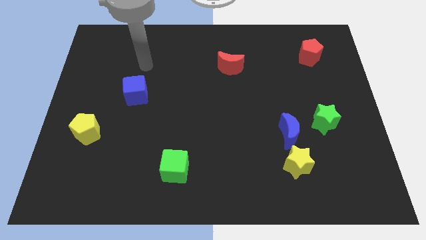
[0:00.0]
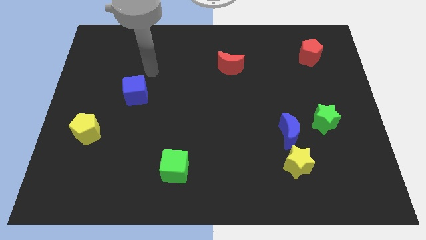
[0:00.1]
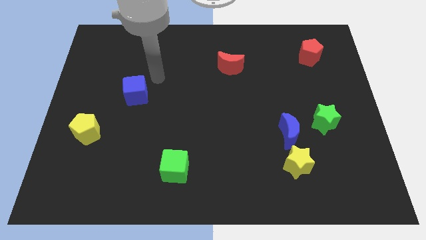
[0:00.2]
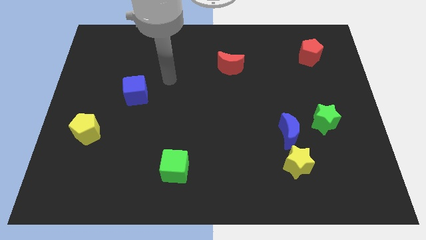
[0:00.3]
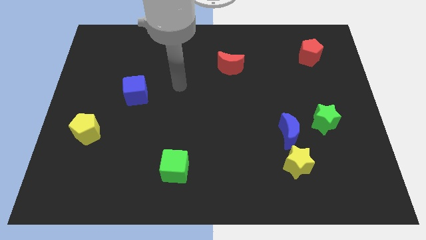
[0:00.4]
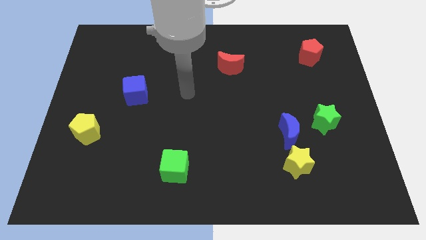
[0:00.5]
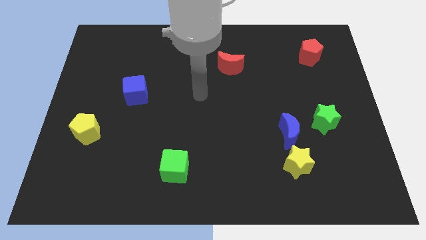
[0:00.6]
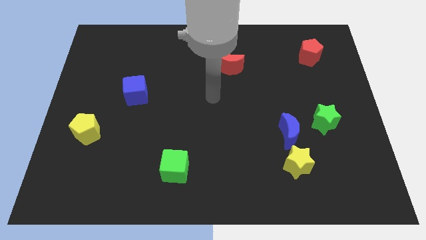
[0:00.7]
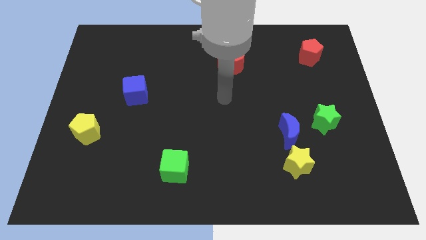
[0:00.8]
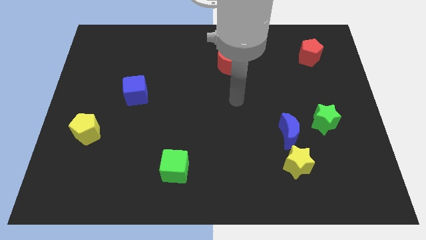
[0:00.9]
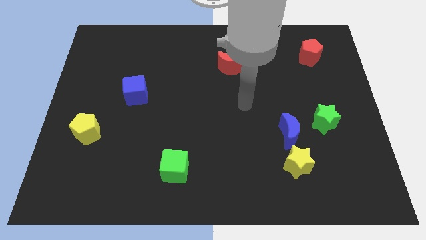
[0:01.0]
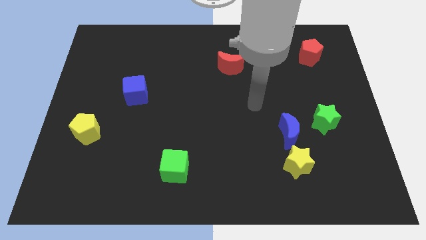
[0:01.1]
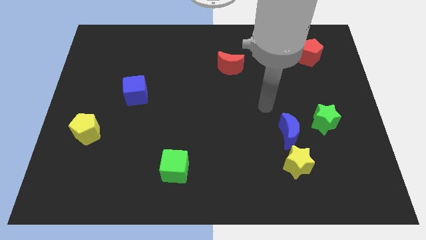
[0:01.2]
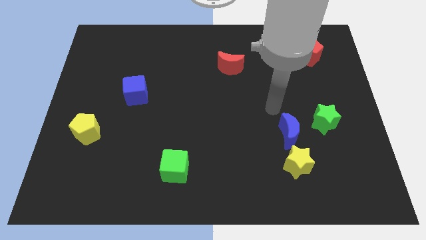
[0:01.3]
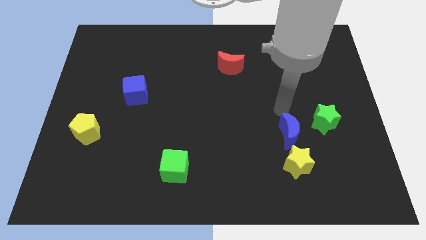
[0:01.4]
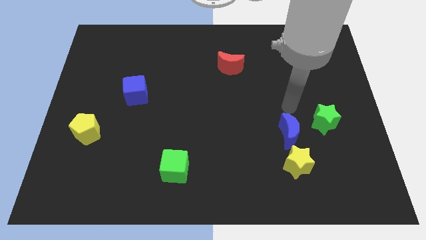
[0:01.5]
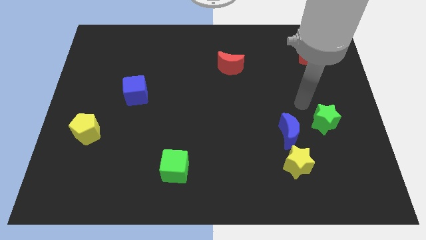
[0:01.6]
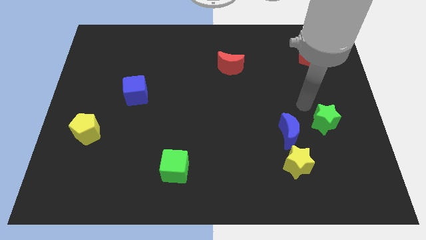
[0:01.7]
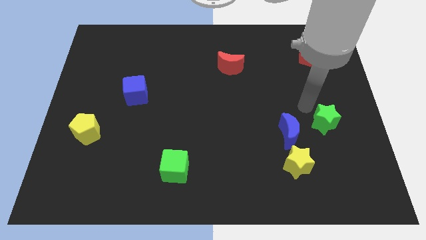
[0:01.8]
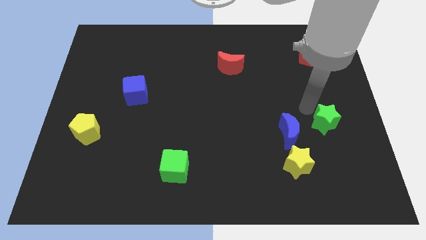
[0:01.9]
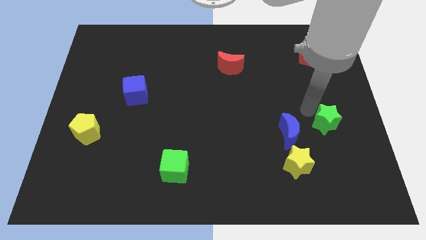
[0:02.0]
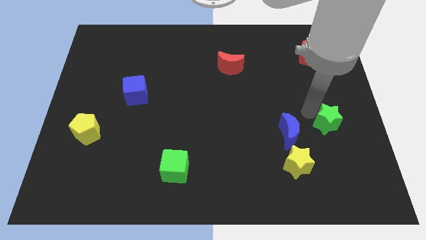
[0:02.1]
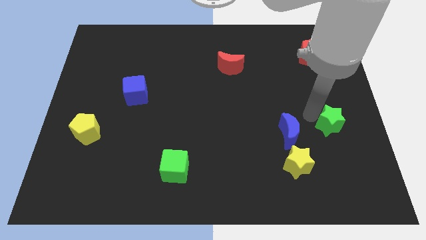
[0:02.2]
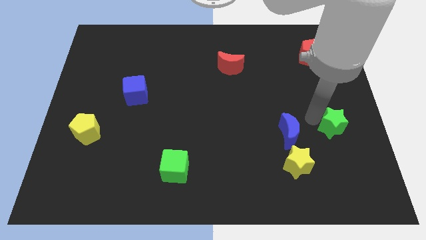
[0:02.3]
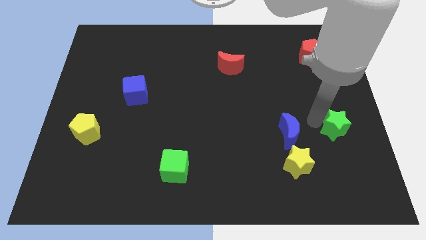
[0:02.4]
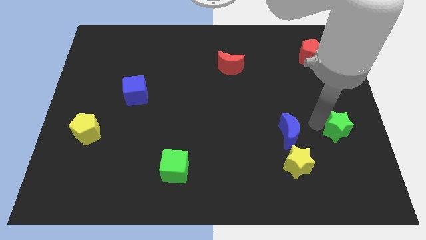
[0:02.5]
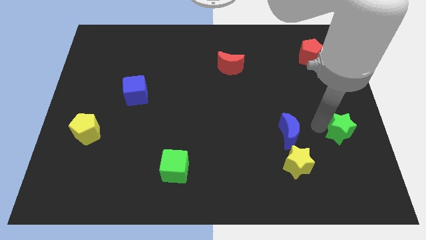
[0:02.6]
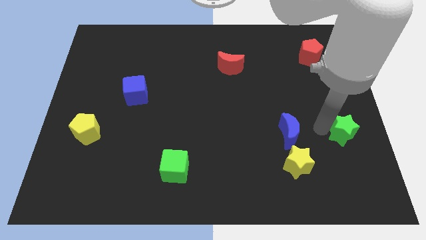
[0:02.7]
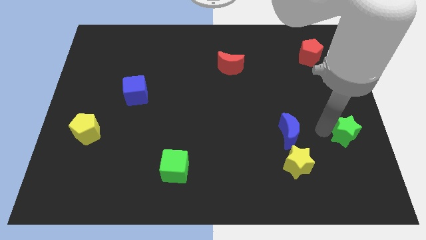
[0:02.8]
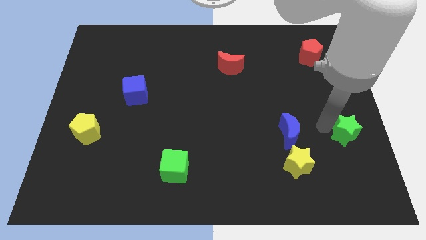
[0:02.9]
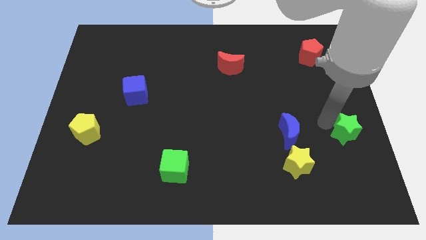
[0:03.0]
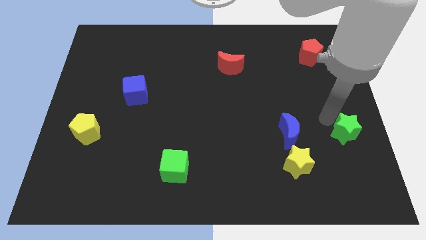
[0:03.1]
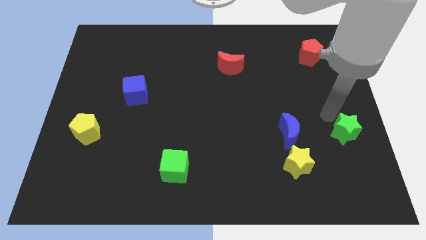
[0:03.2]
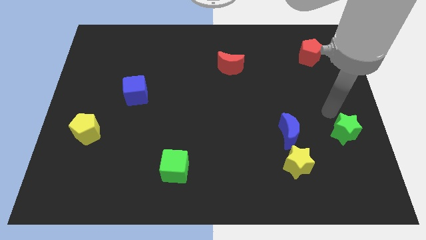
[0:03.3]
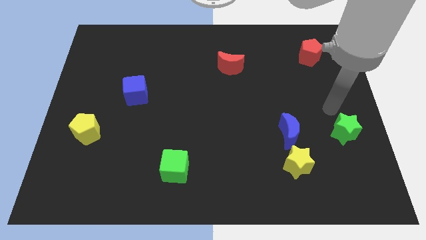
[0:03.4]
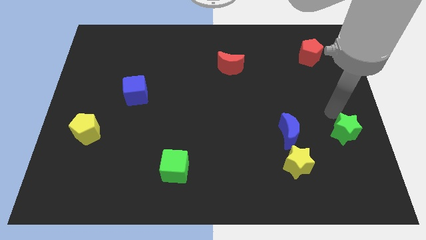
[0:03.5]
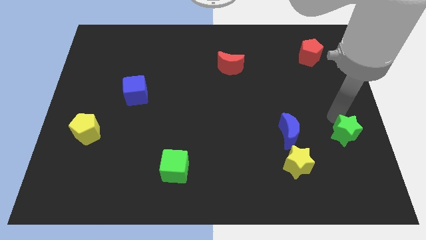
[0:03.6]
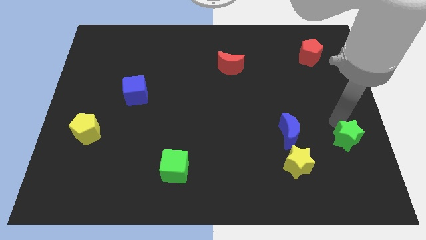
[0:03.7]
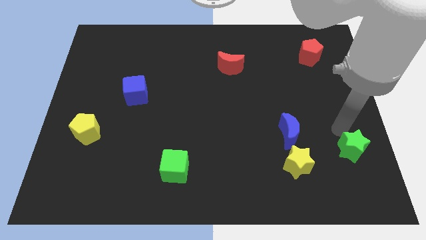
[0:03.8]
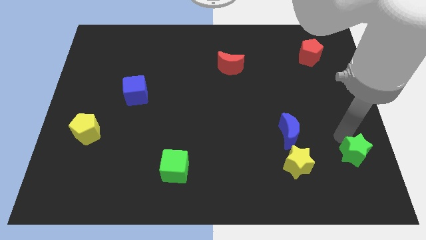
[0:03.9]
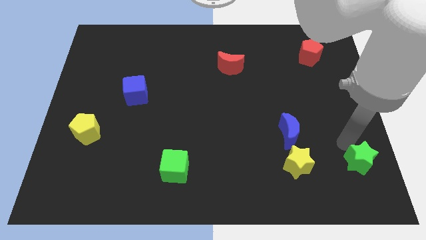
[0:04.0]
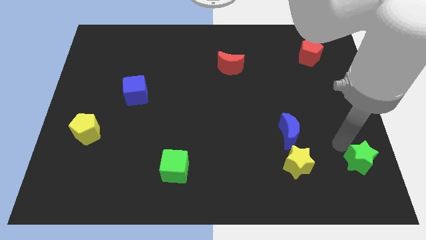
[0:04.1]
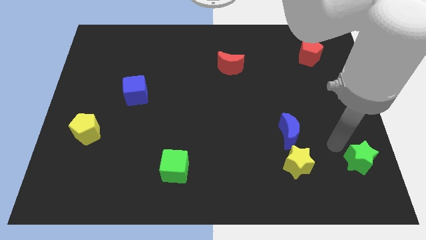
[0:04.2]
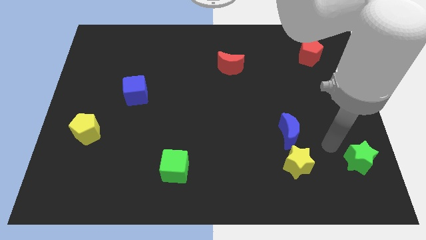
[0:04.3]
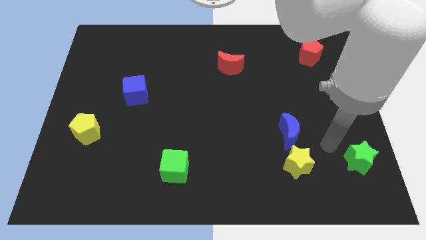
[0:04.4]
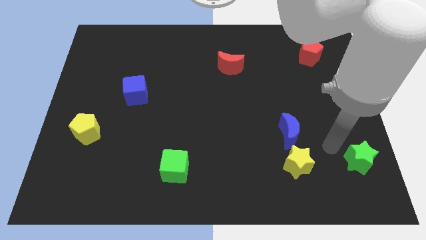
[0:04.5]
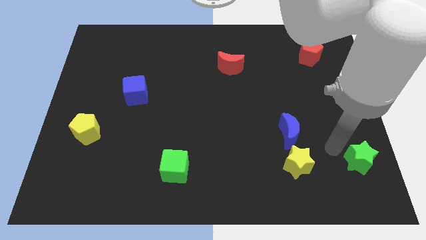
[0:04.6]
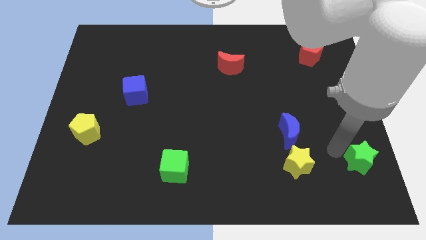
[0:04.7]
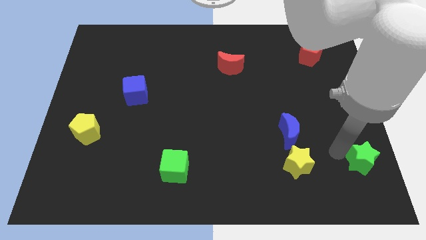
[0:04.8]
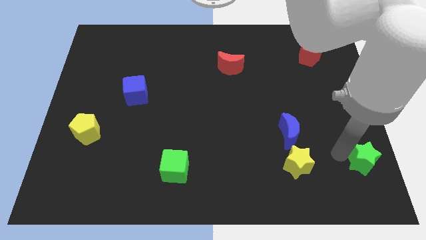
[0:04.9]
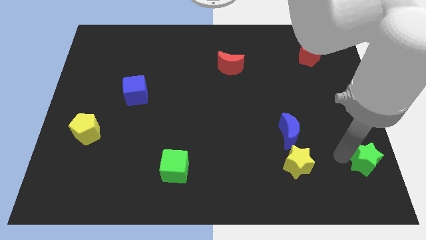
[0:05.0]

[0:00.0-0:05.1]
move the green star to the lower right corner

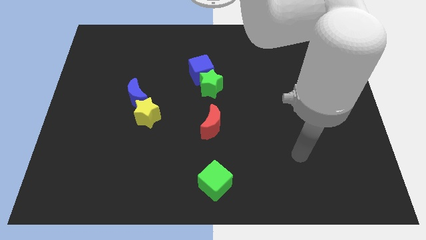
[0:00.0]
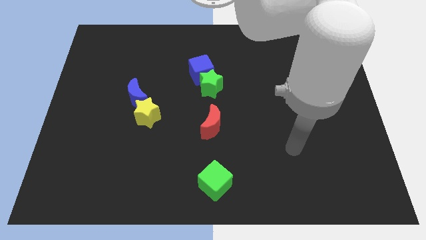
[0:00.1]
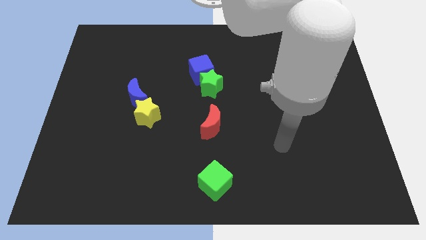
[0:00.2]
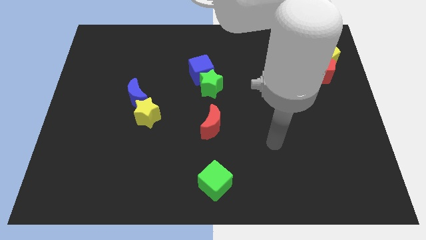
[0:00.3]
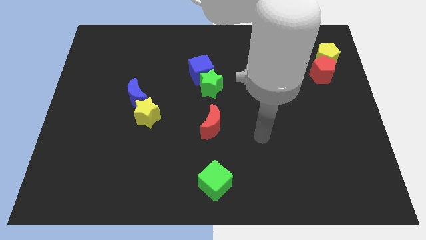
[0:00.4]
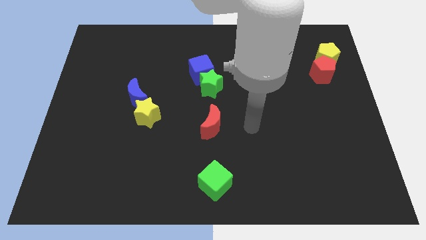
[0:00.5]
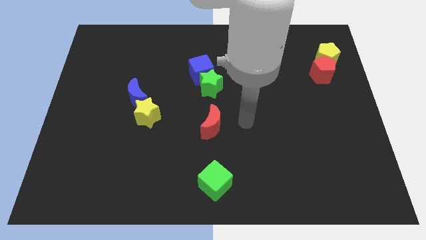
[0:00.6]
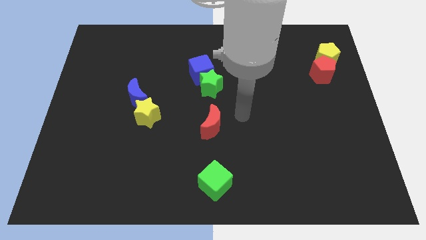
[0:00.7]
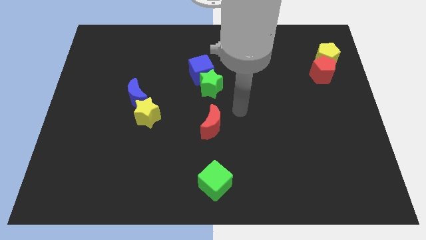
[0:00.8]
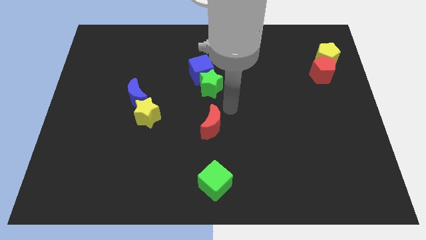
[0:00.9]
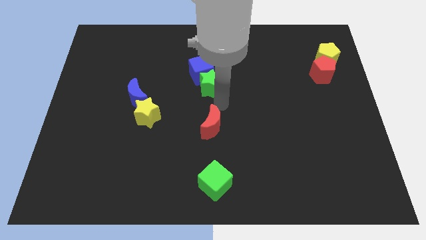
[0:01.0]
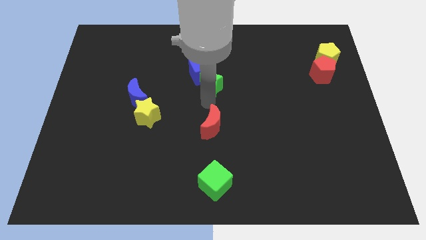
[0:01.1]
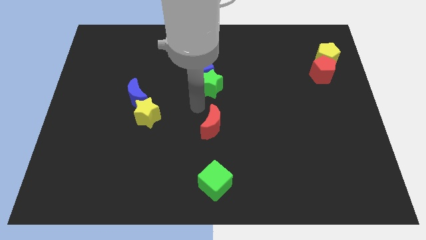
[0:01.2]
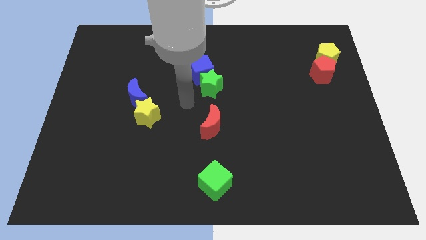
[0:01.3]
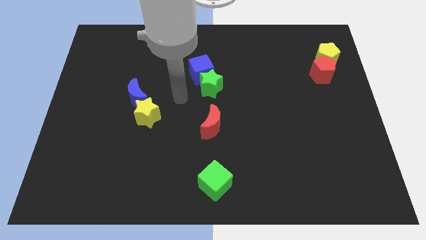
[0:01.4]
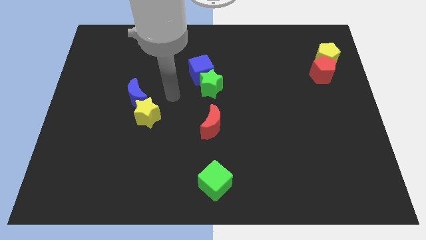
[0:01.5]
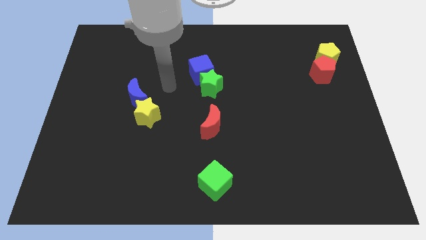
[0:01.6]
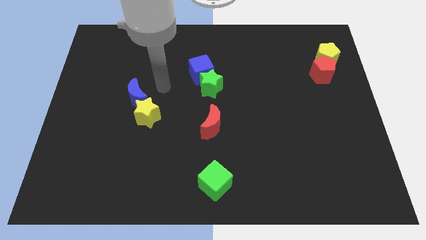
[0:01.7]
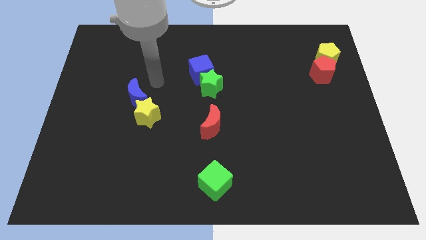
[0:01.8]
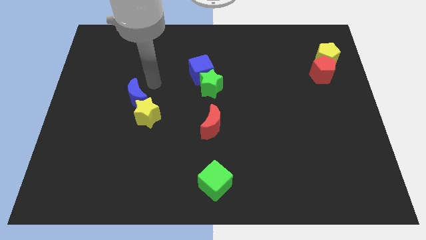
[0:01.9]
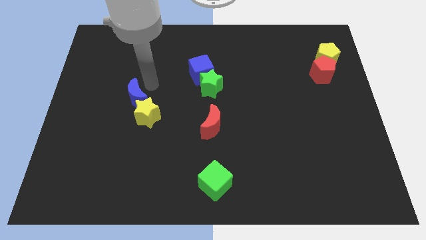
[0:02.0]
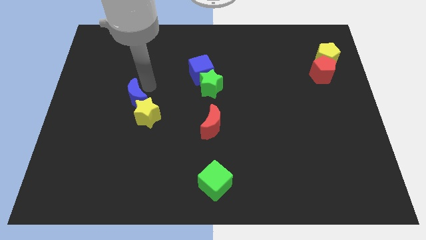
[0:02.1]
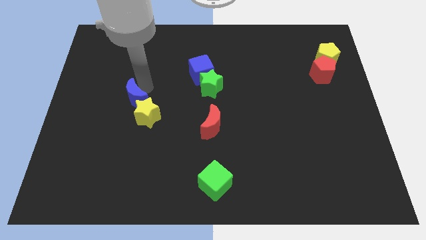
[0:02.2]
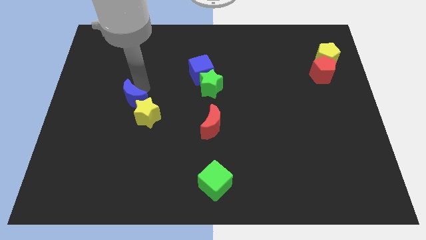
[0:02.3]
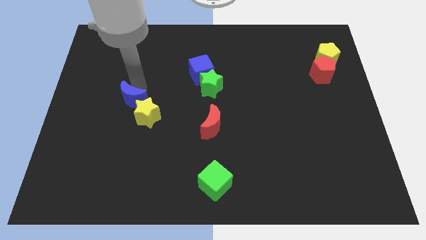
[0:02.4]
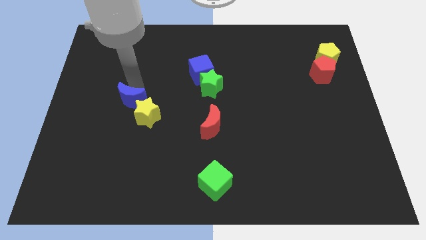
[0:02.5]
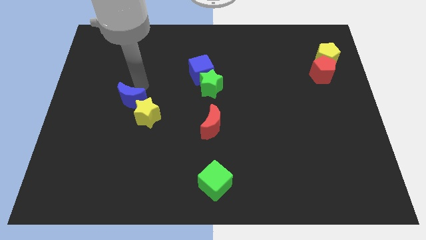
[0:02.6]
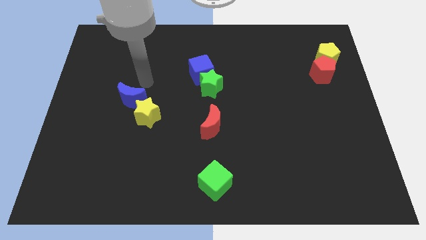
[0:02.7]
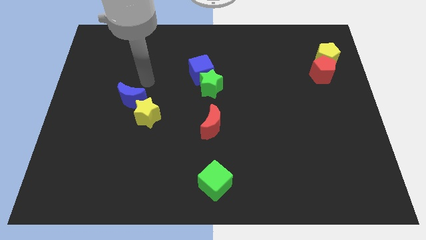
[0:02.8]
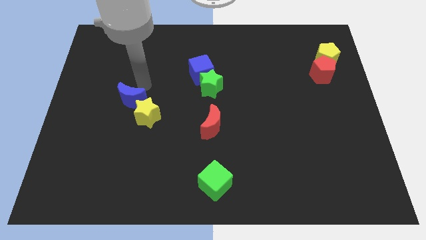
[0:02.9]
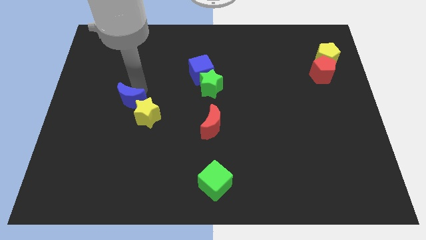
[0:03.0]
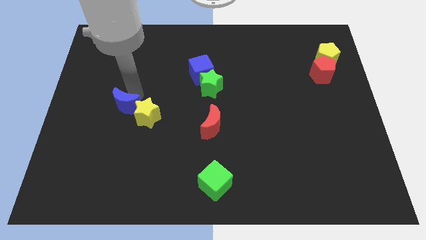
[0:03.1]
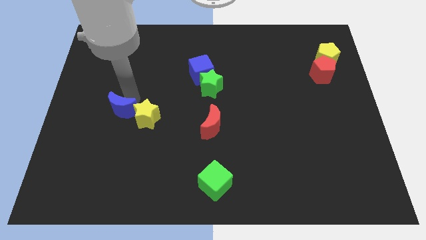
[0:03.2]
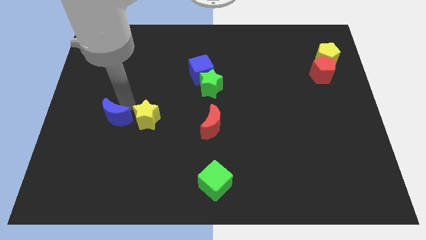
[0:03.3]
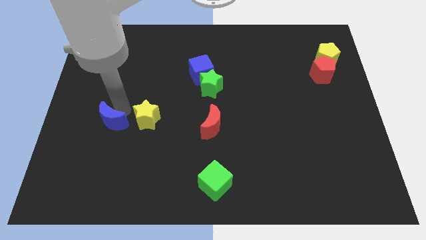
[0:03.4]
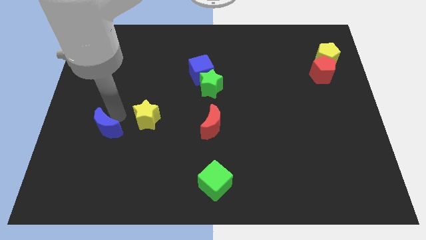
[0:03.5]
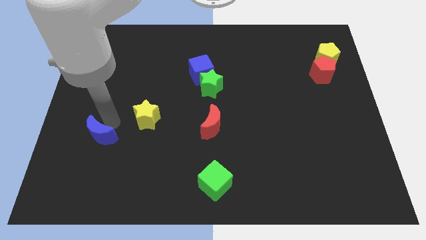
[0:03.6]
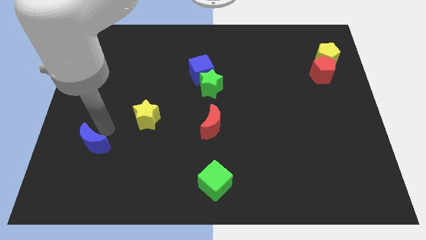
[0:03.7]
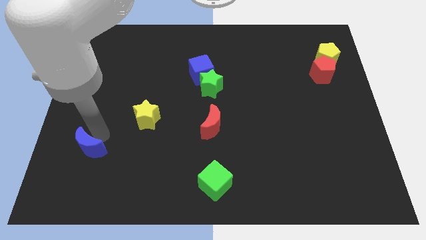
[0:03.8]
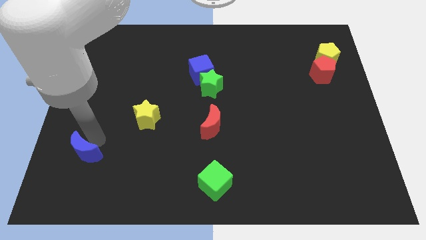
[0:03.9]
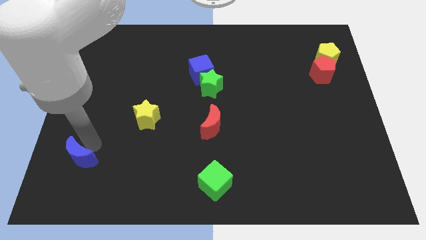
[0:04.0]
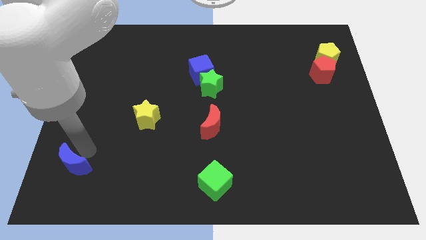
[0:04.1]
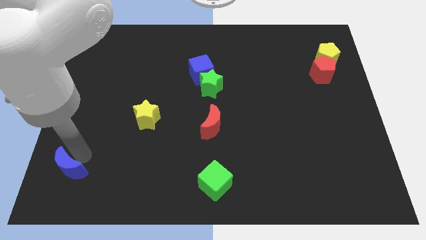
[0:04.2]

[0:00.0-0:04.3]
move the blue moon to the bottom left corner
